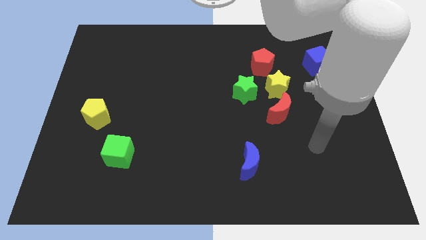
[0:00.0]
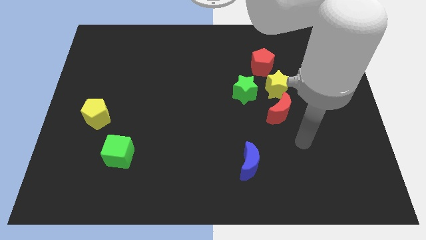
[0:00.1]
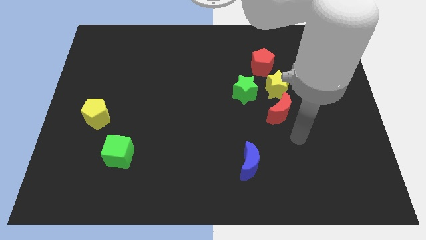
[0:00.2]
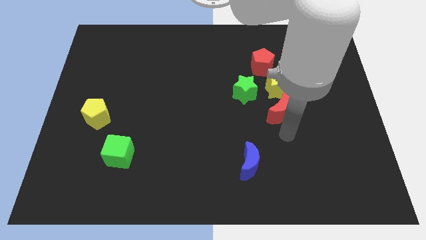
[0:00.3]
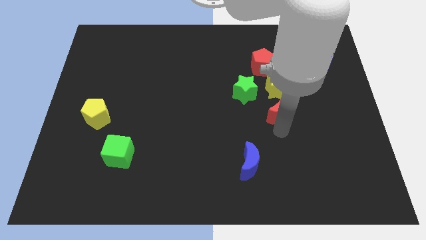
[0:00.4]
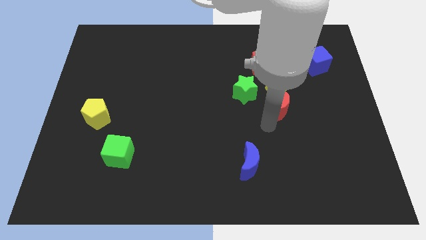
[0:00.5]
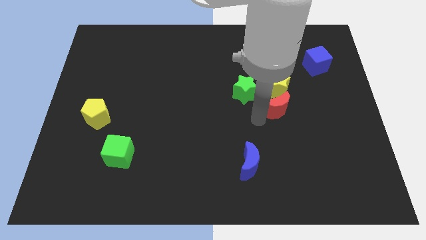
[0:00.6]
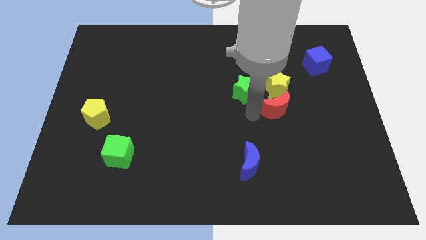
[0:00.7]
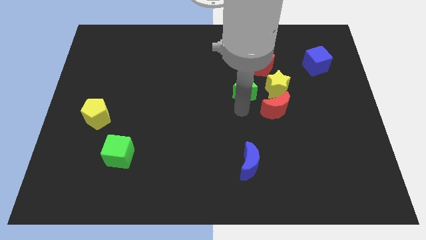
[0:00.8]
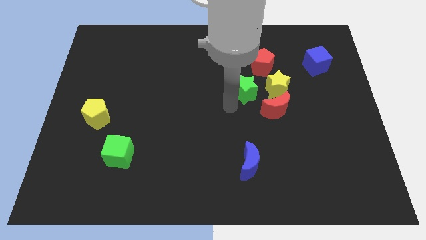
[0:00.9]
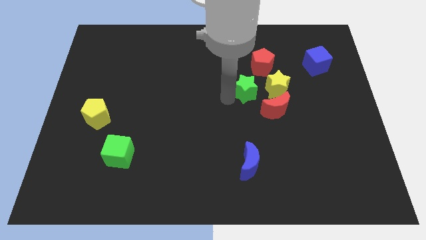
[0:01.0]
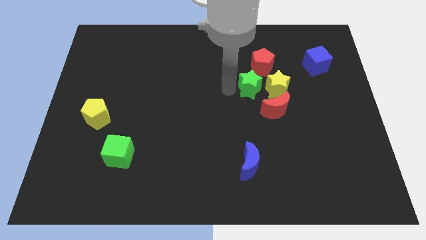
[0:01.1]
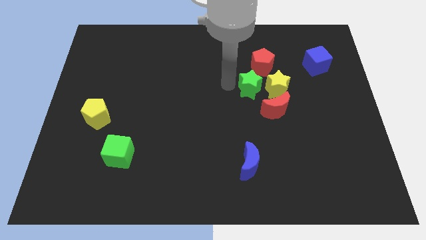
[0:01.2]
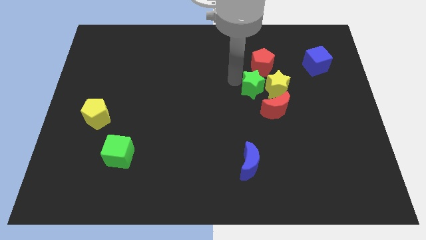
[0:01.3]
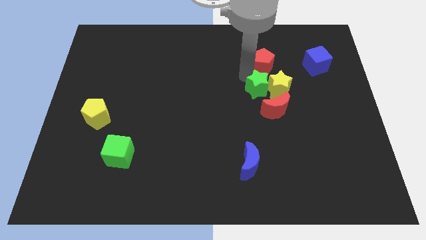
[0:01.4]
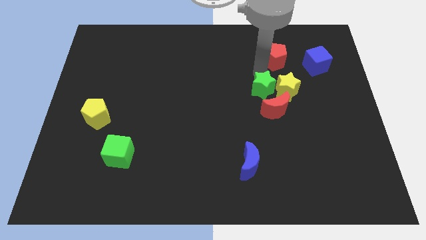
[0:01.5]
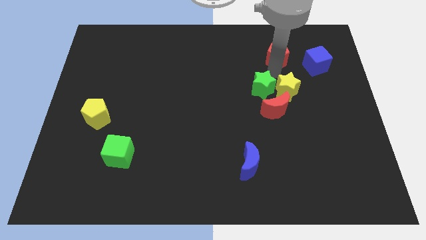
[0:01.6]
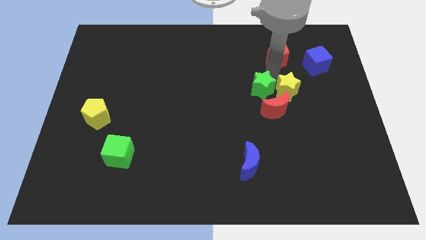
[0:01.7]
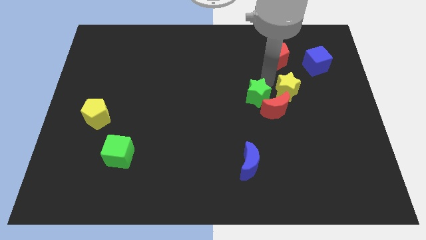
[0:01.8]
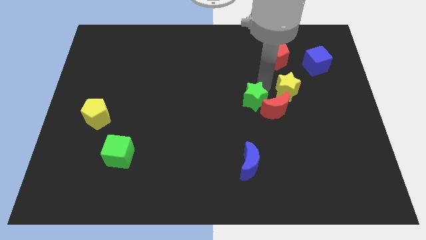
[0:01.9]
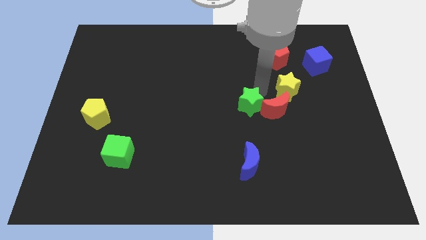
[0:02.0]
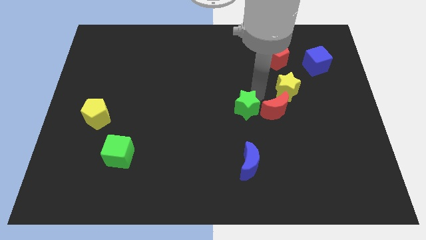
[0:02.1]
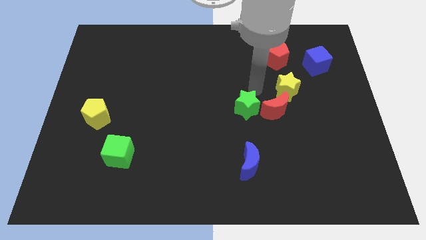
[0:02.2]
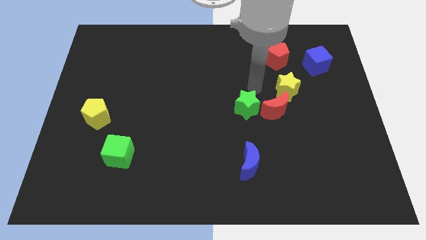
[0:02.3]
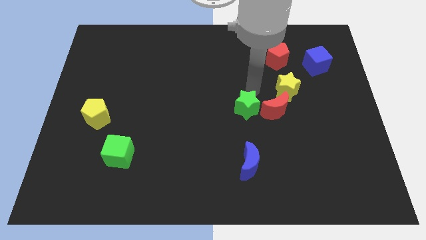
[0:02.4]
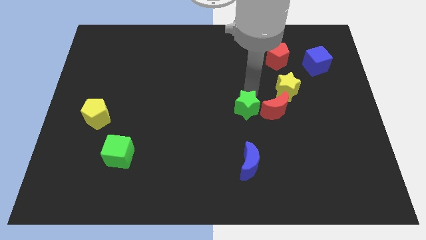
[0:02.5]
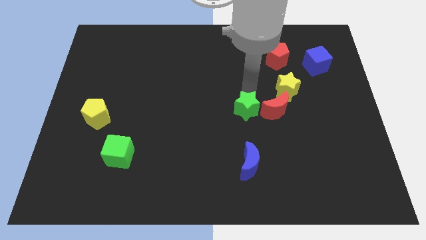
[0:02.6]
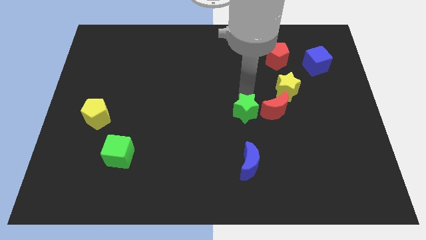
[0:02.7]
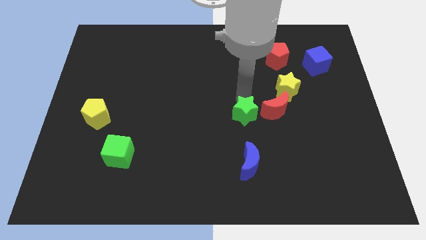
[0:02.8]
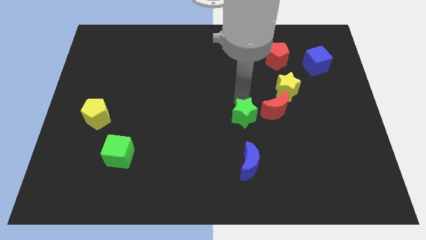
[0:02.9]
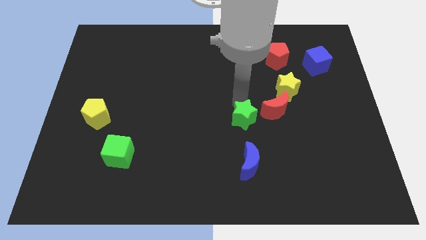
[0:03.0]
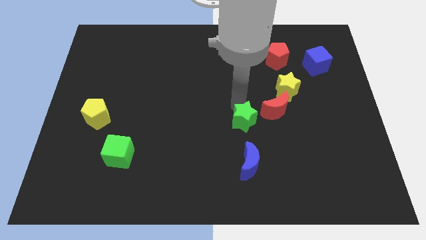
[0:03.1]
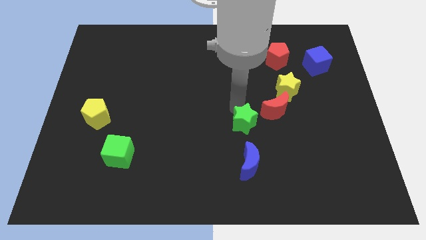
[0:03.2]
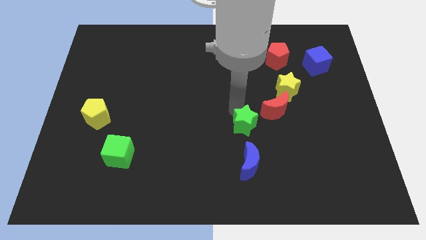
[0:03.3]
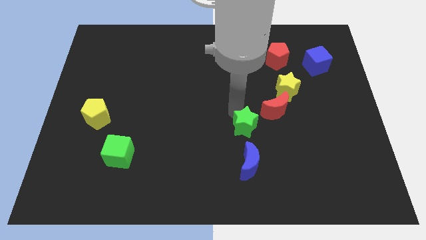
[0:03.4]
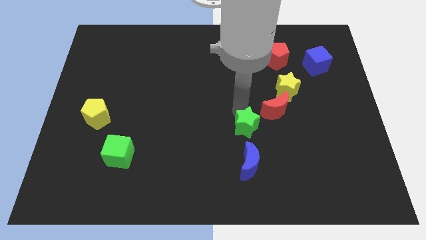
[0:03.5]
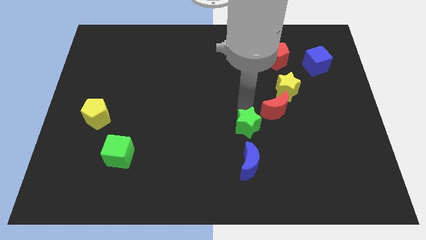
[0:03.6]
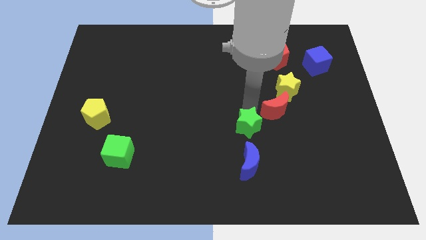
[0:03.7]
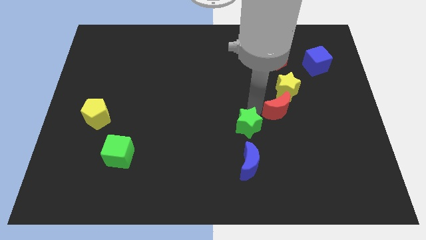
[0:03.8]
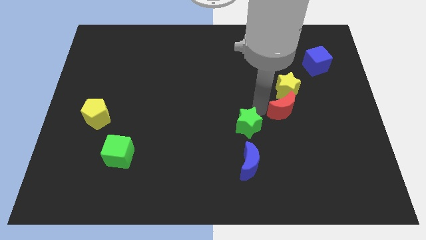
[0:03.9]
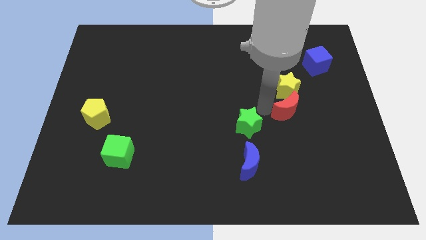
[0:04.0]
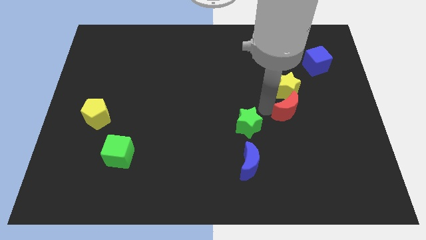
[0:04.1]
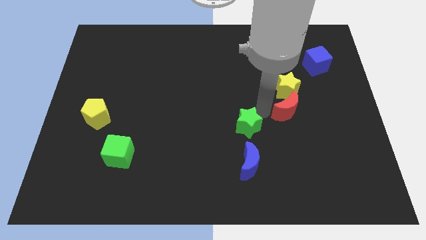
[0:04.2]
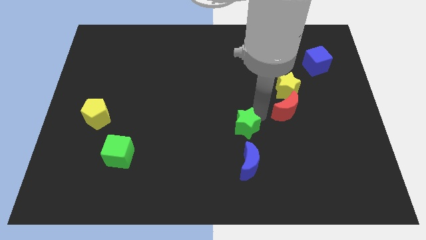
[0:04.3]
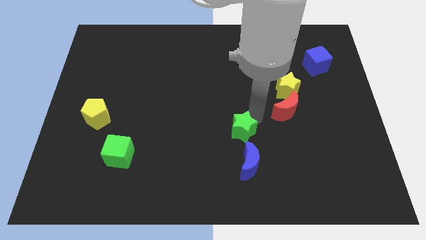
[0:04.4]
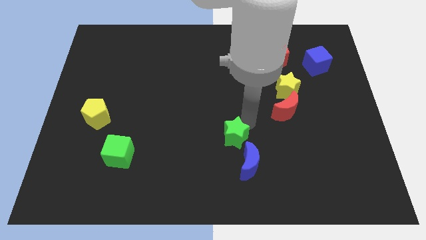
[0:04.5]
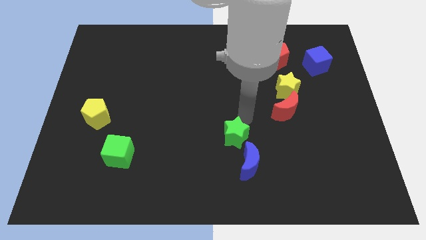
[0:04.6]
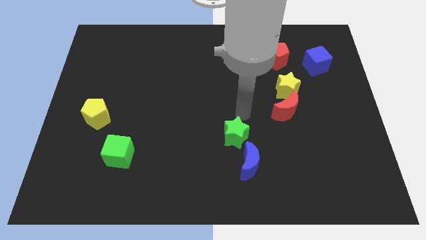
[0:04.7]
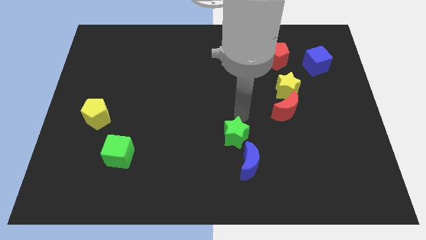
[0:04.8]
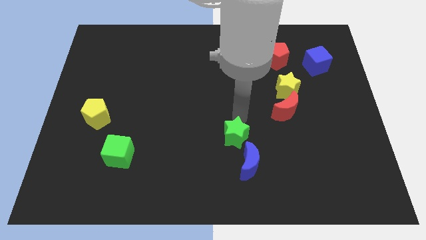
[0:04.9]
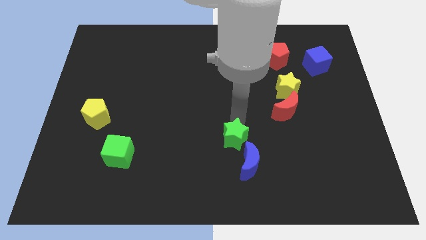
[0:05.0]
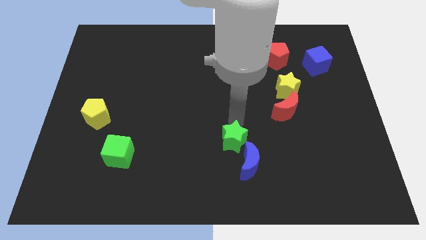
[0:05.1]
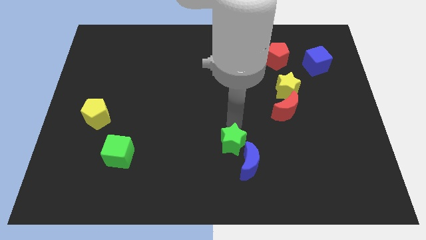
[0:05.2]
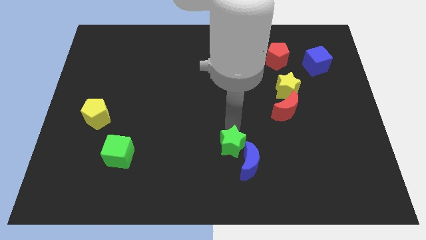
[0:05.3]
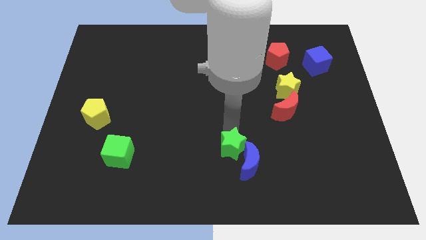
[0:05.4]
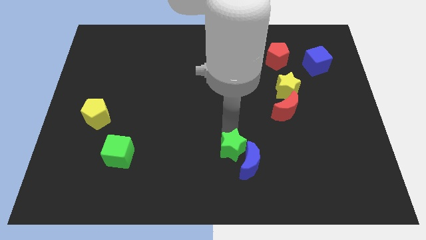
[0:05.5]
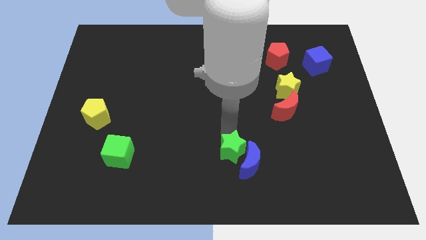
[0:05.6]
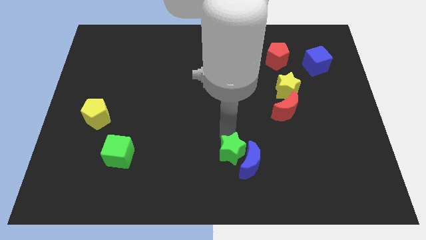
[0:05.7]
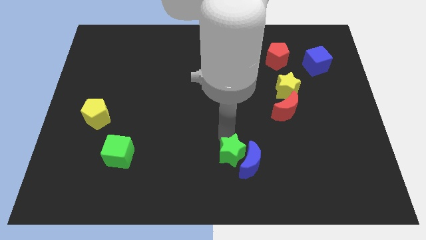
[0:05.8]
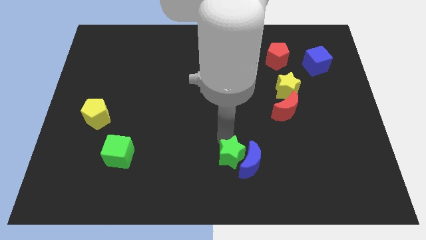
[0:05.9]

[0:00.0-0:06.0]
push the green star to the bottom
